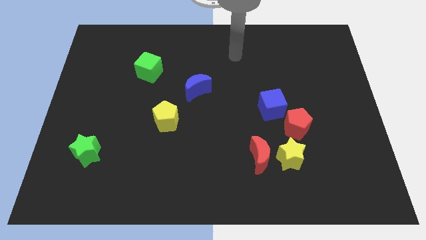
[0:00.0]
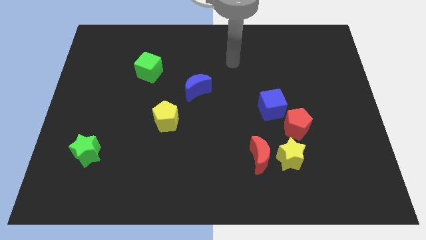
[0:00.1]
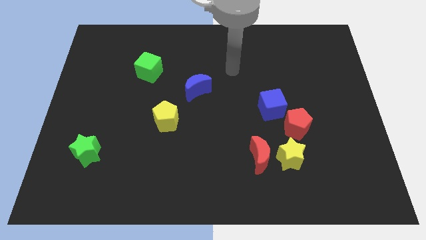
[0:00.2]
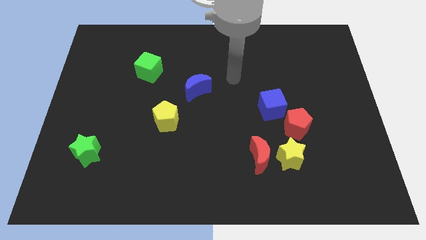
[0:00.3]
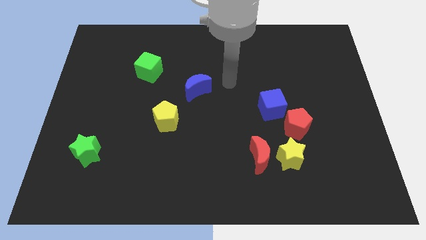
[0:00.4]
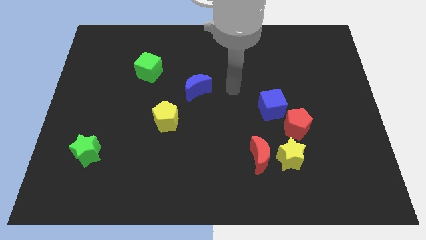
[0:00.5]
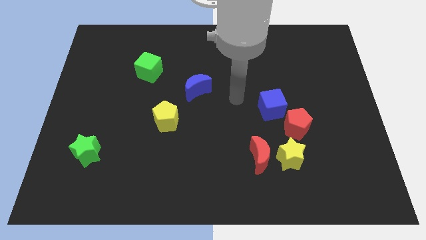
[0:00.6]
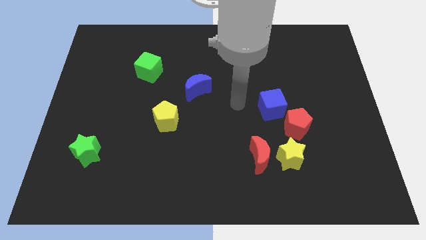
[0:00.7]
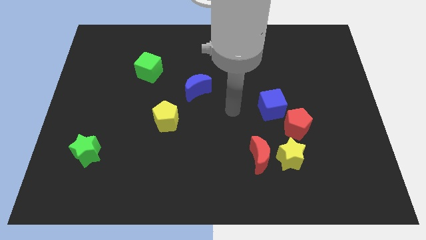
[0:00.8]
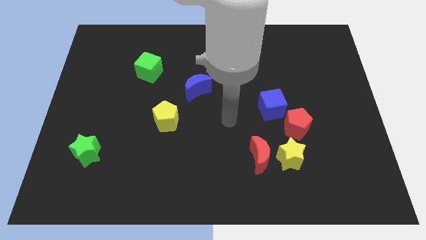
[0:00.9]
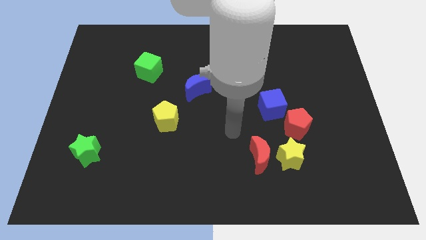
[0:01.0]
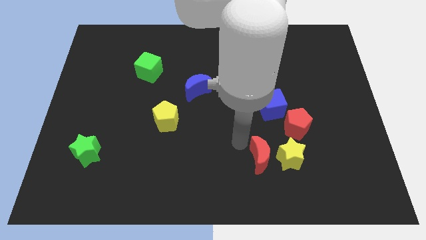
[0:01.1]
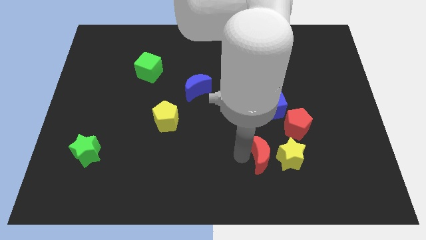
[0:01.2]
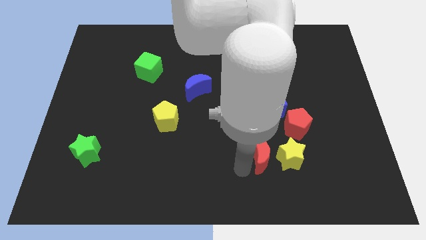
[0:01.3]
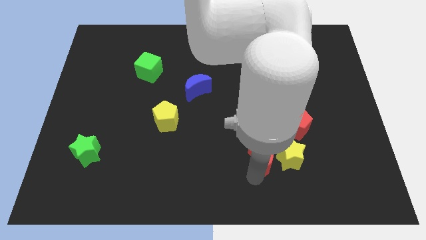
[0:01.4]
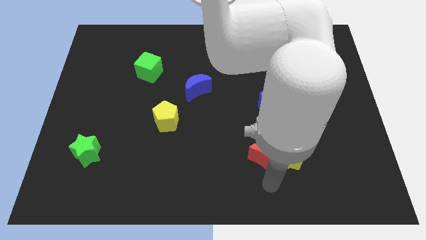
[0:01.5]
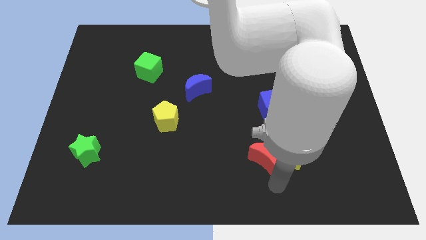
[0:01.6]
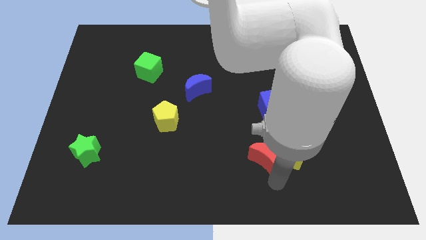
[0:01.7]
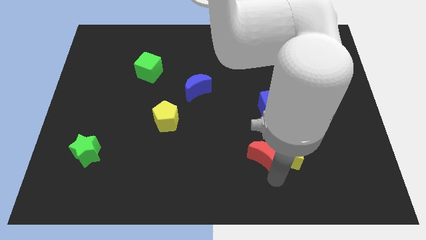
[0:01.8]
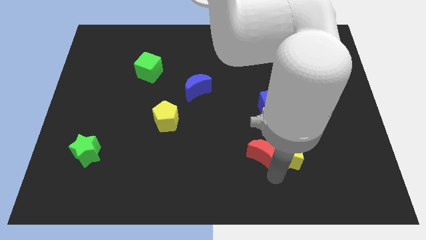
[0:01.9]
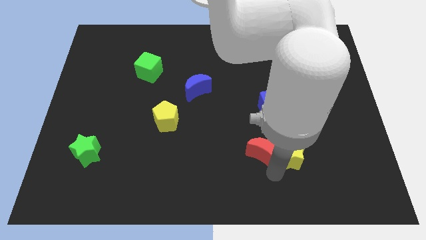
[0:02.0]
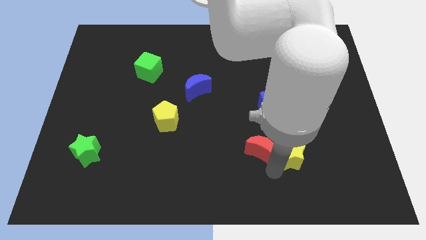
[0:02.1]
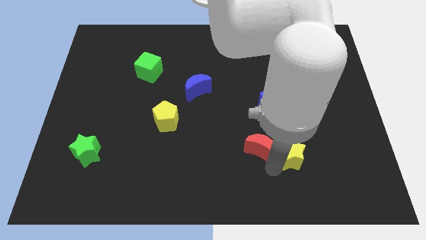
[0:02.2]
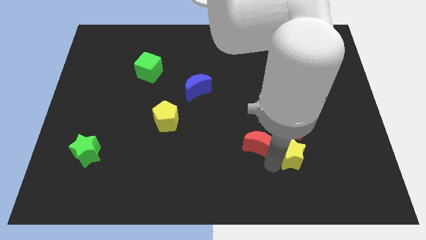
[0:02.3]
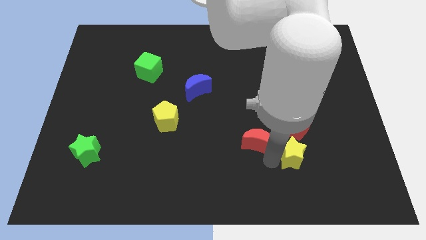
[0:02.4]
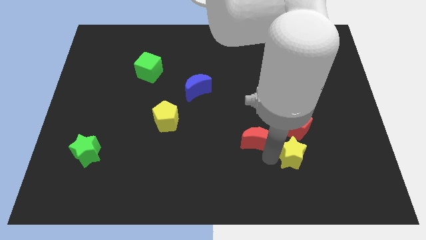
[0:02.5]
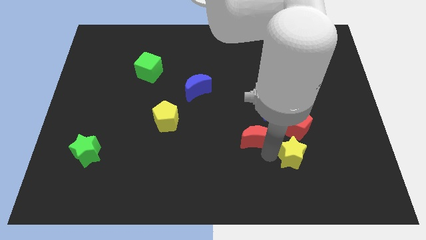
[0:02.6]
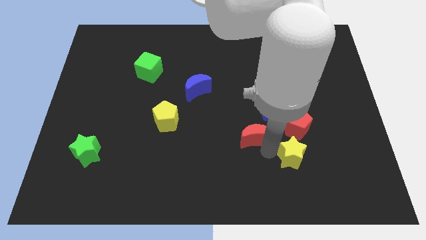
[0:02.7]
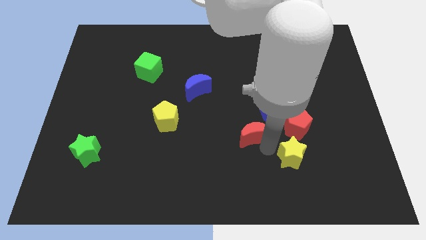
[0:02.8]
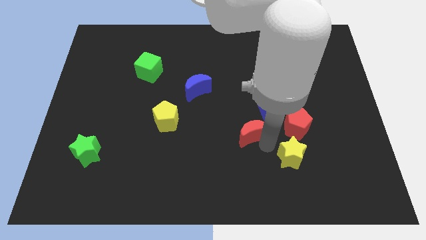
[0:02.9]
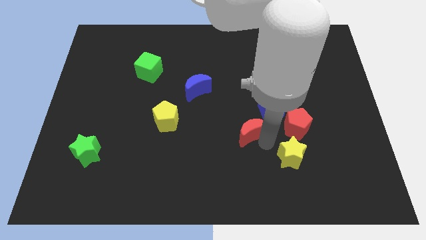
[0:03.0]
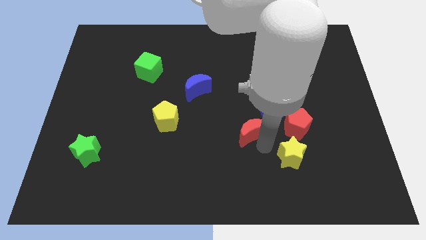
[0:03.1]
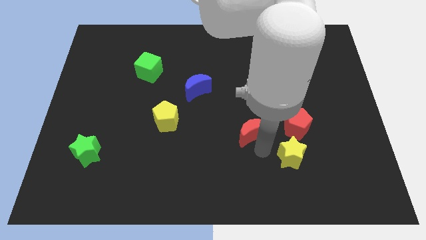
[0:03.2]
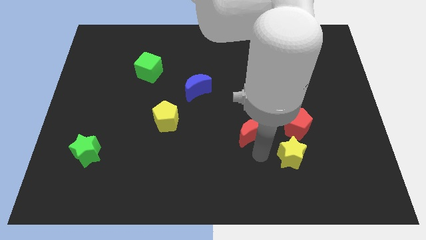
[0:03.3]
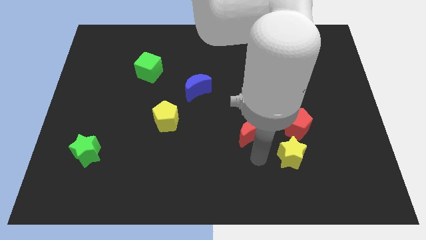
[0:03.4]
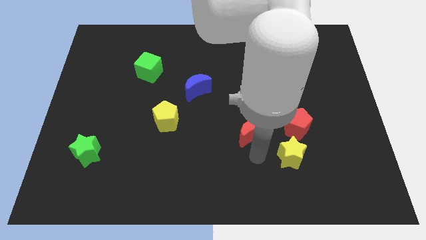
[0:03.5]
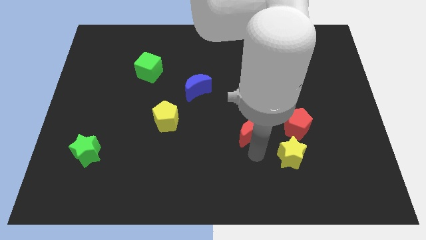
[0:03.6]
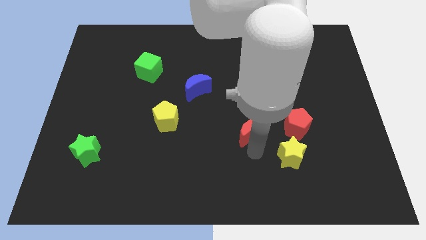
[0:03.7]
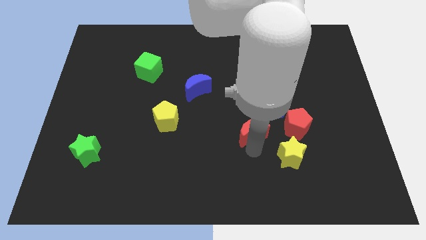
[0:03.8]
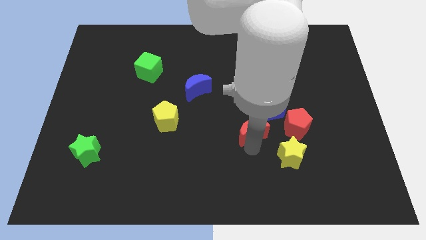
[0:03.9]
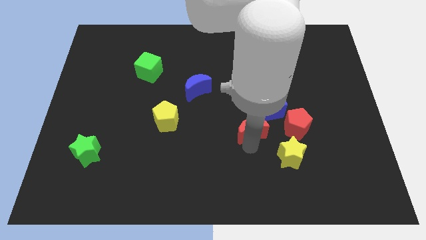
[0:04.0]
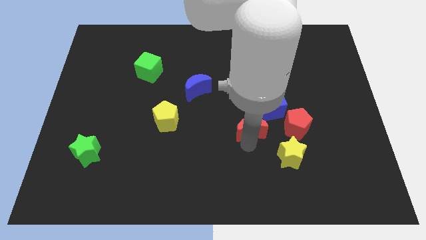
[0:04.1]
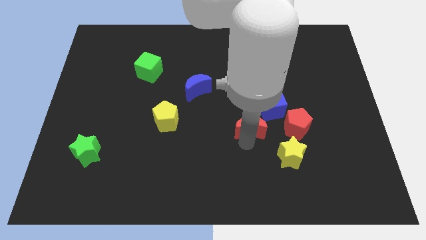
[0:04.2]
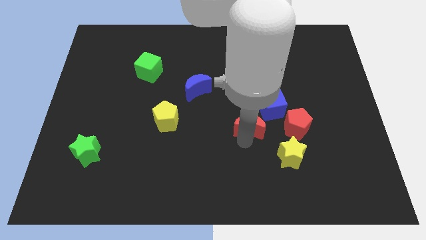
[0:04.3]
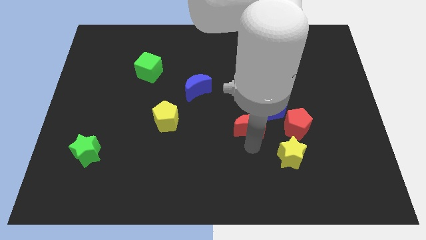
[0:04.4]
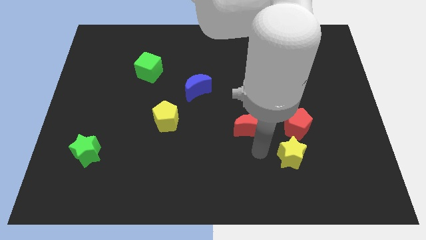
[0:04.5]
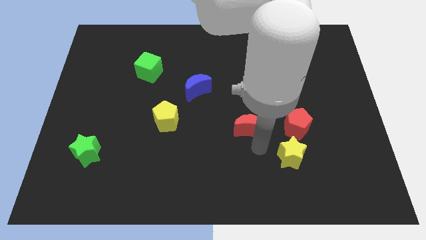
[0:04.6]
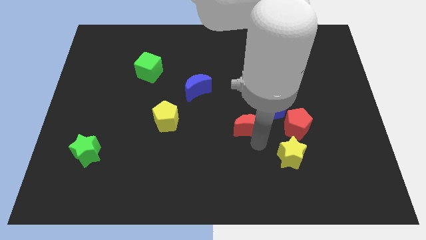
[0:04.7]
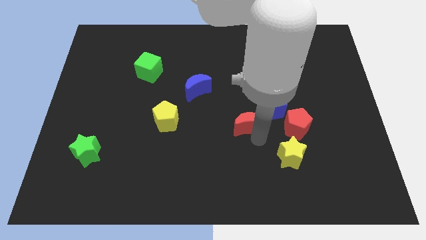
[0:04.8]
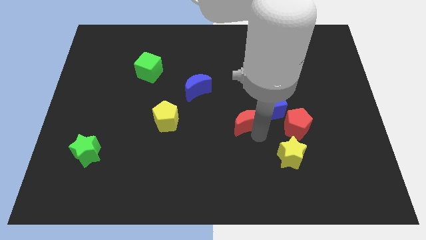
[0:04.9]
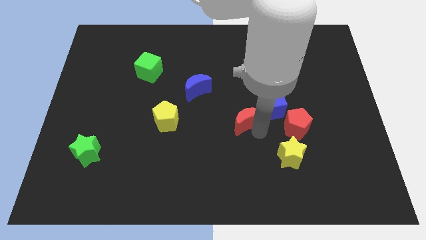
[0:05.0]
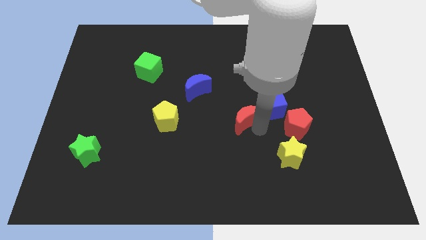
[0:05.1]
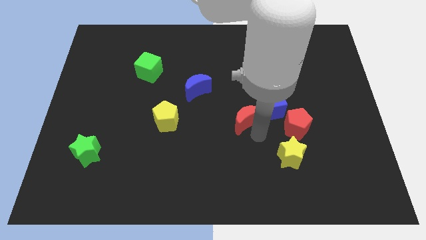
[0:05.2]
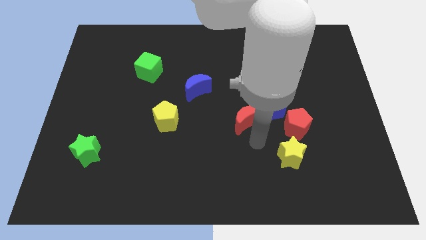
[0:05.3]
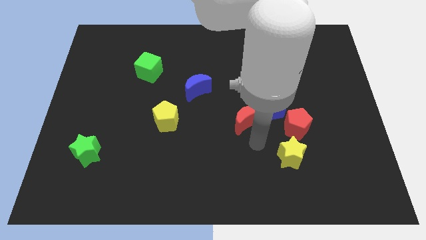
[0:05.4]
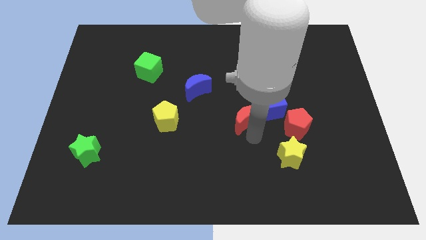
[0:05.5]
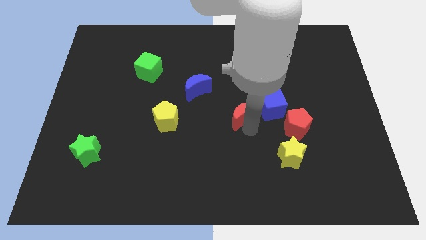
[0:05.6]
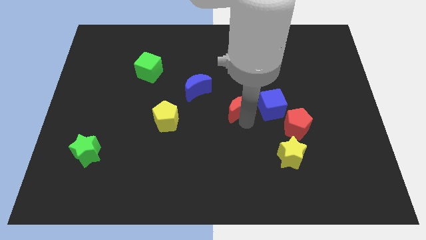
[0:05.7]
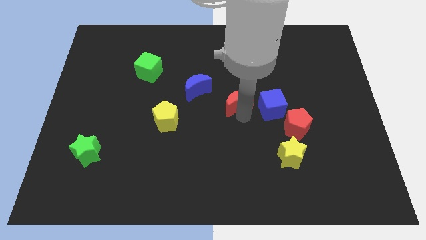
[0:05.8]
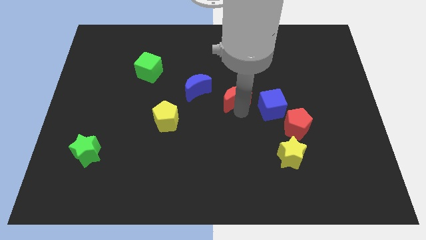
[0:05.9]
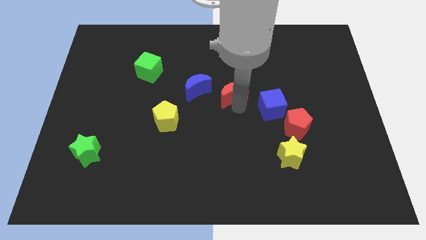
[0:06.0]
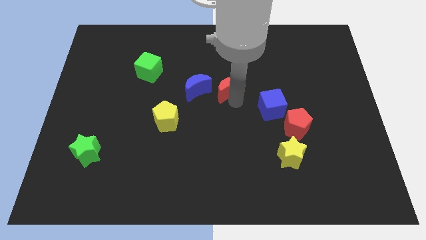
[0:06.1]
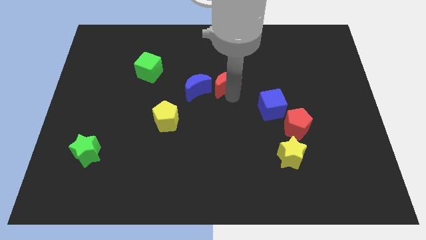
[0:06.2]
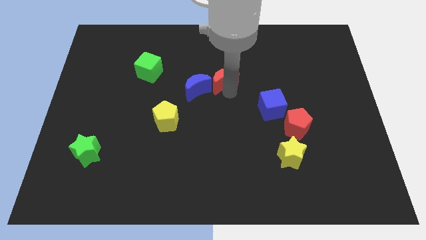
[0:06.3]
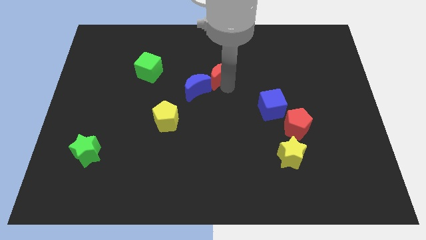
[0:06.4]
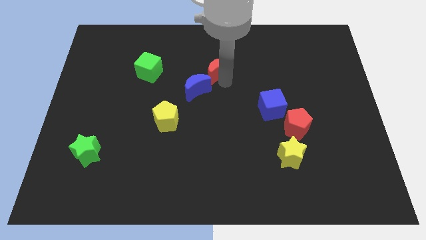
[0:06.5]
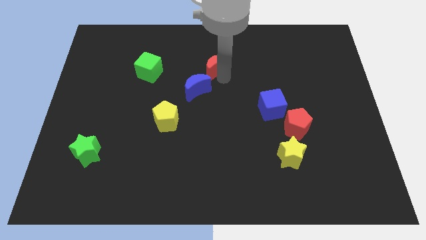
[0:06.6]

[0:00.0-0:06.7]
slide the red moon to the top side of the blue moon

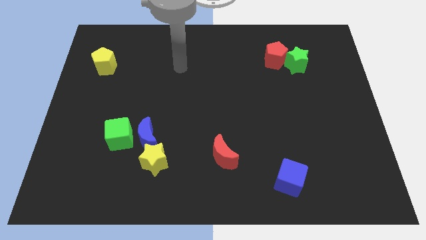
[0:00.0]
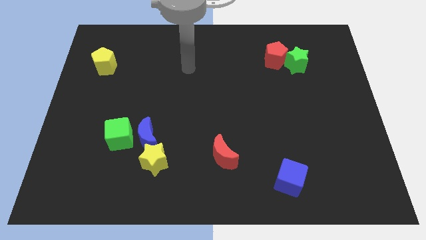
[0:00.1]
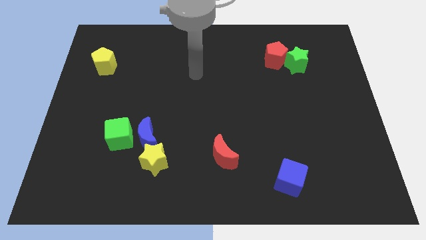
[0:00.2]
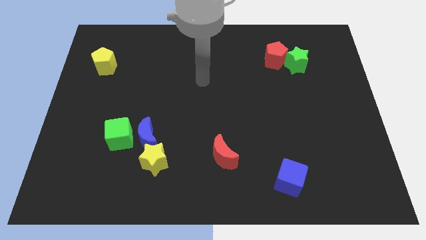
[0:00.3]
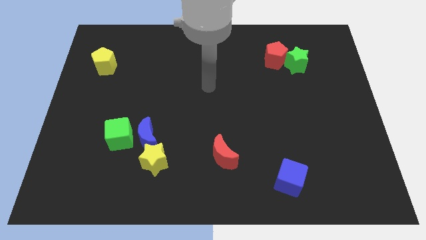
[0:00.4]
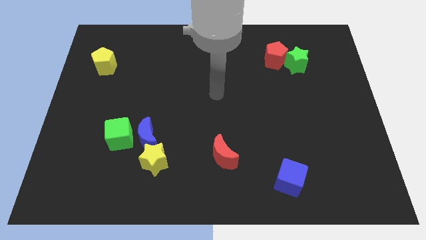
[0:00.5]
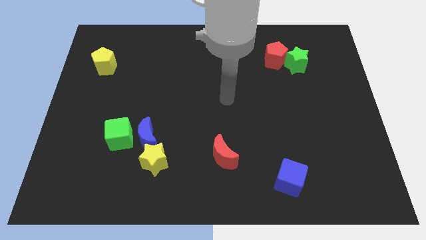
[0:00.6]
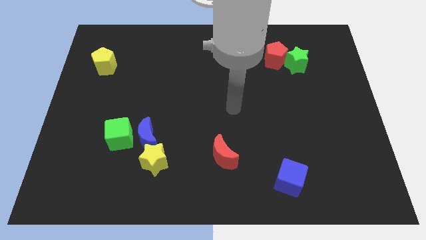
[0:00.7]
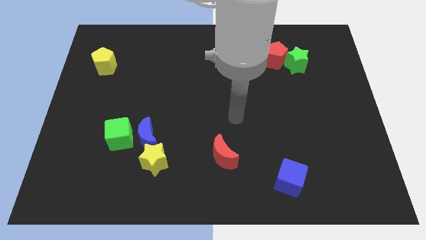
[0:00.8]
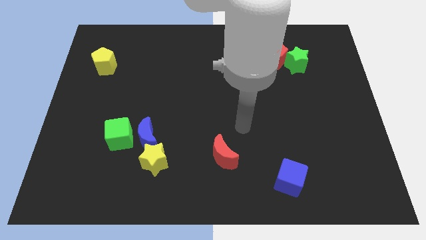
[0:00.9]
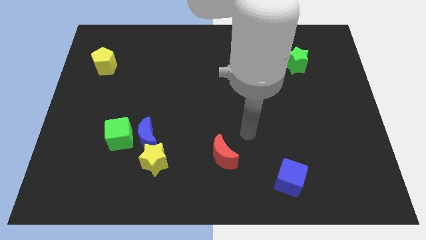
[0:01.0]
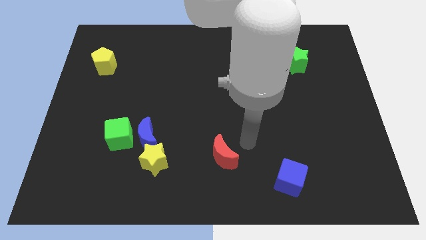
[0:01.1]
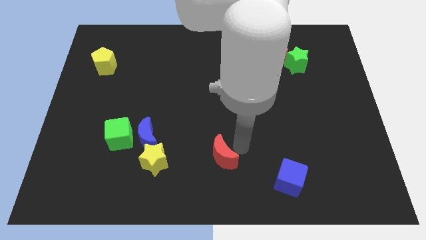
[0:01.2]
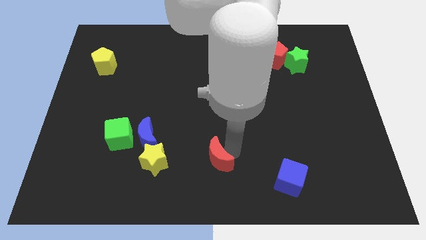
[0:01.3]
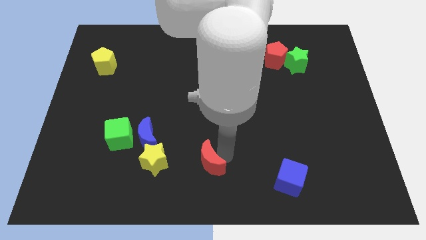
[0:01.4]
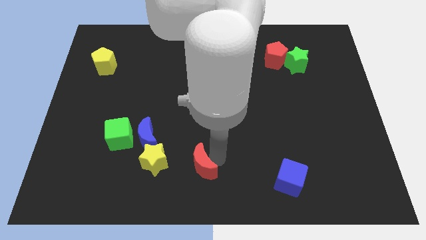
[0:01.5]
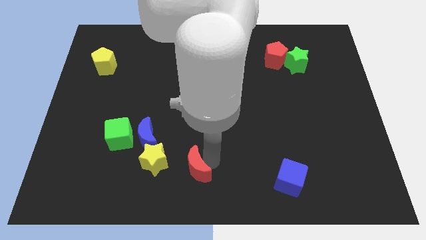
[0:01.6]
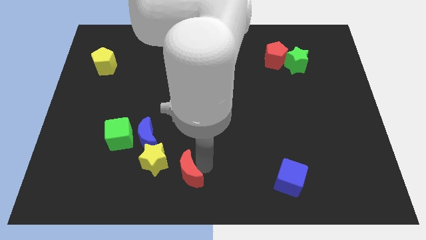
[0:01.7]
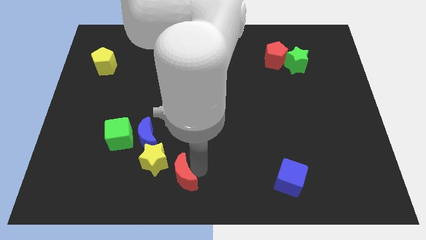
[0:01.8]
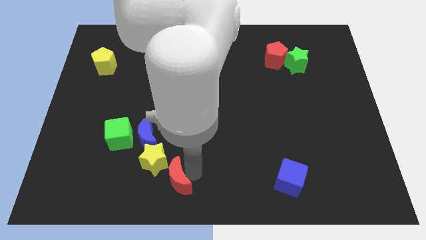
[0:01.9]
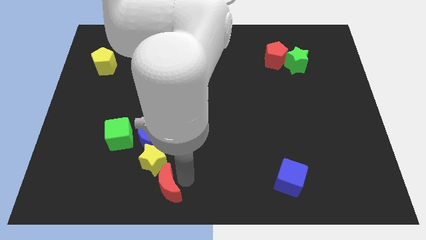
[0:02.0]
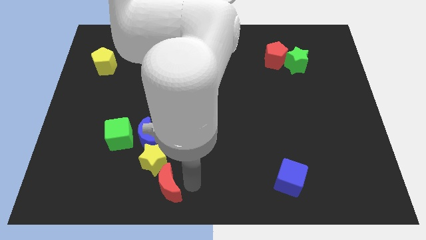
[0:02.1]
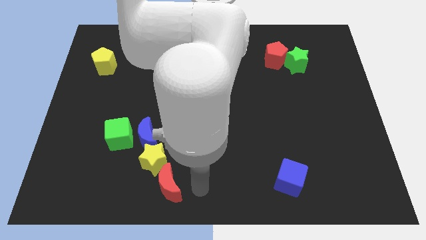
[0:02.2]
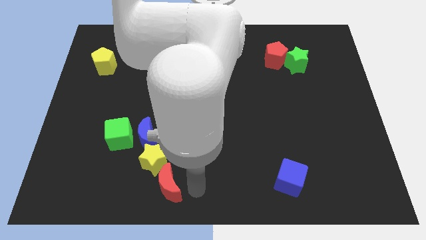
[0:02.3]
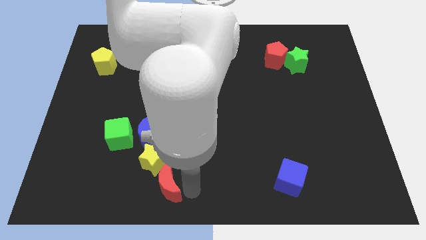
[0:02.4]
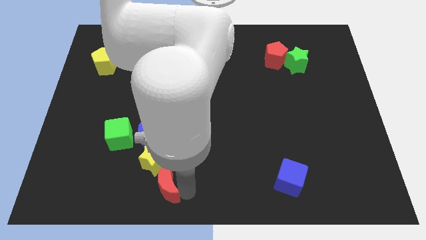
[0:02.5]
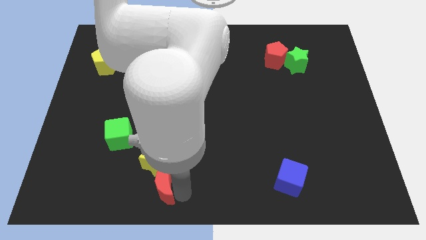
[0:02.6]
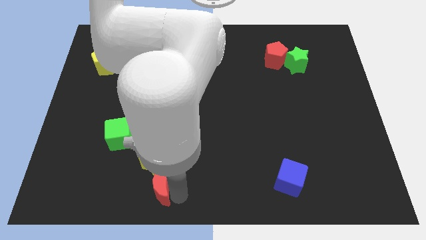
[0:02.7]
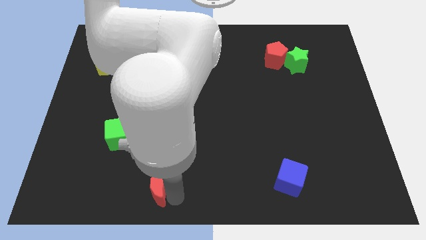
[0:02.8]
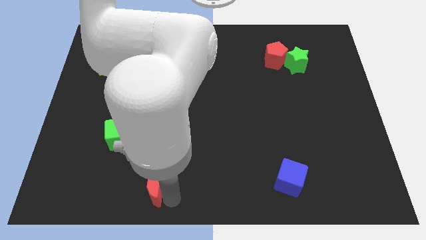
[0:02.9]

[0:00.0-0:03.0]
move the red moon to the bottom left of the yellow star
